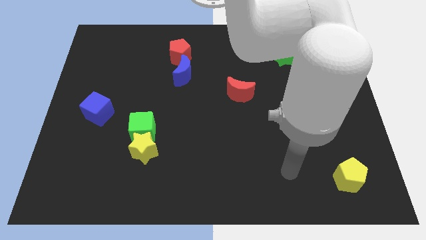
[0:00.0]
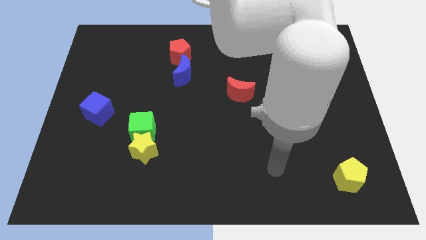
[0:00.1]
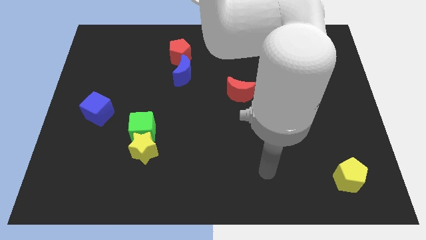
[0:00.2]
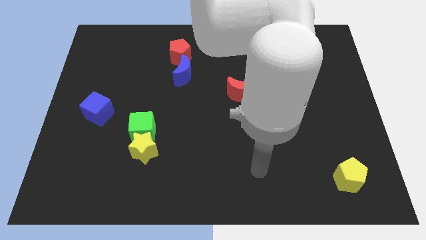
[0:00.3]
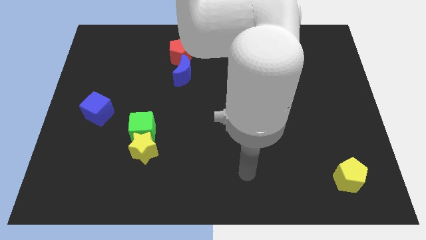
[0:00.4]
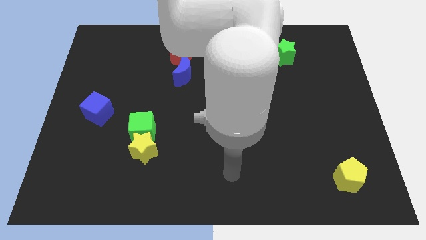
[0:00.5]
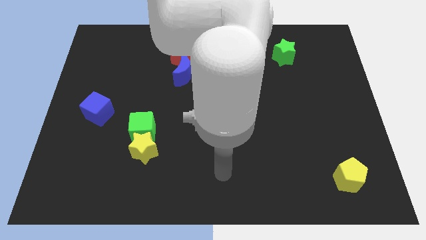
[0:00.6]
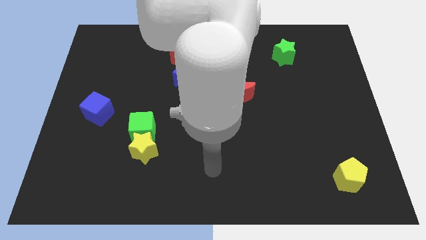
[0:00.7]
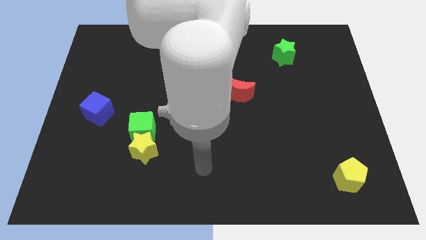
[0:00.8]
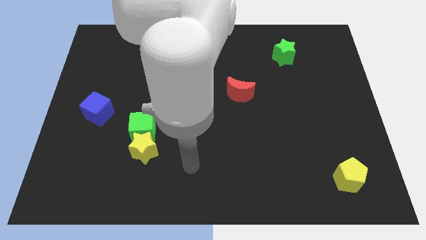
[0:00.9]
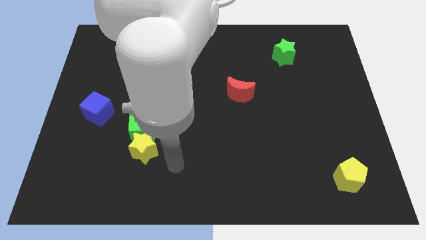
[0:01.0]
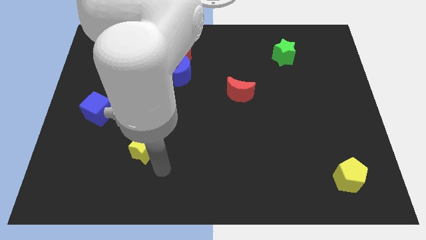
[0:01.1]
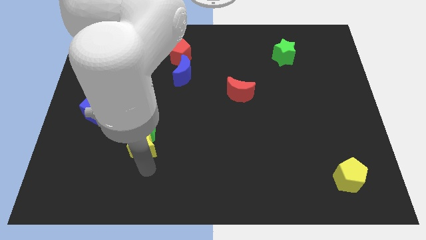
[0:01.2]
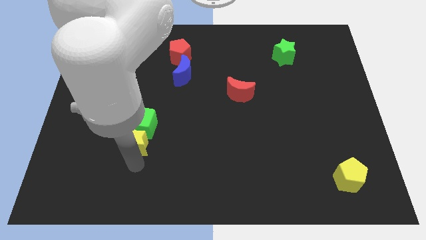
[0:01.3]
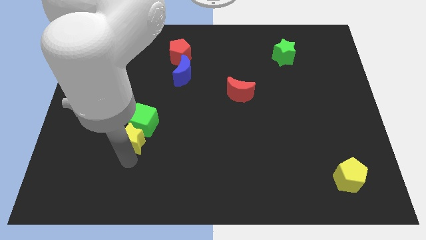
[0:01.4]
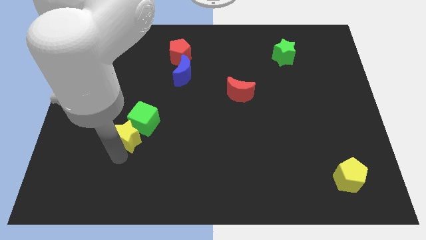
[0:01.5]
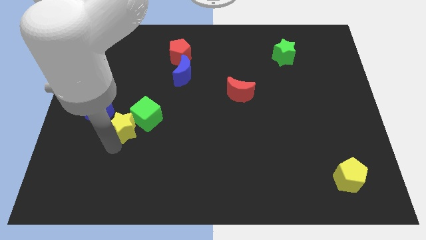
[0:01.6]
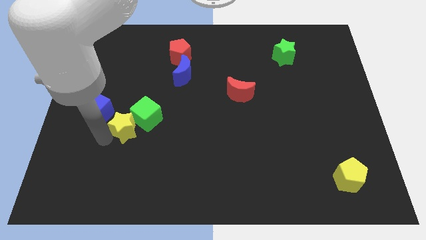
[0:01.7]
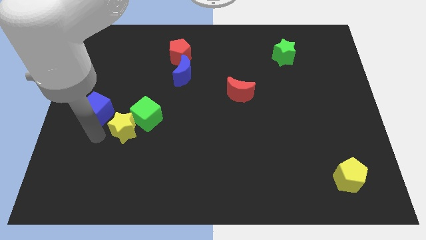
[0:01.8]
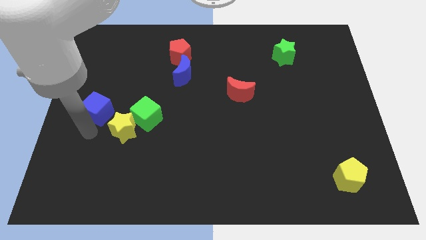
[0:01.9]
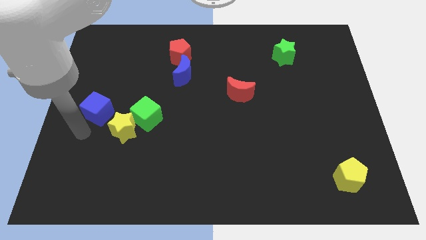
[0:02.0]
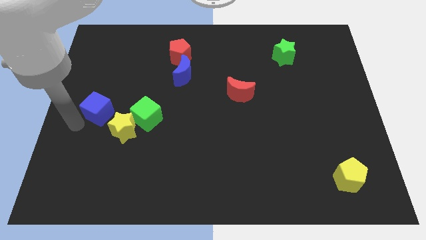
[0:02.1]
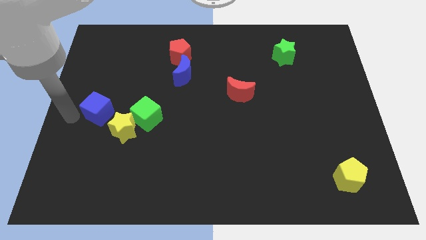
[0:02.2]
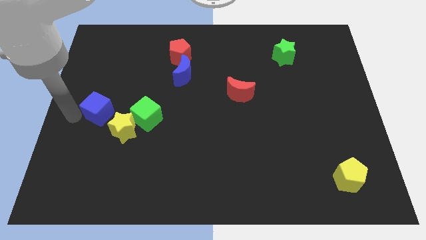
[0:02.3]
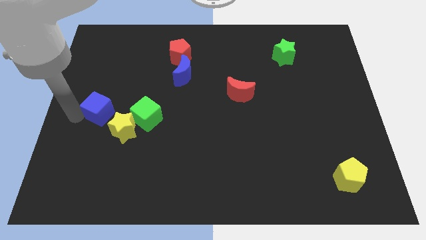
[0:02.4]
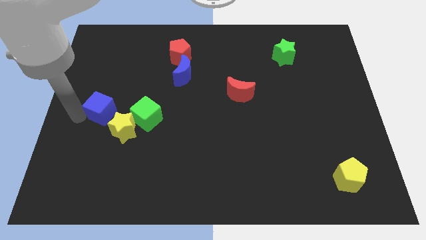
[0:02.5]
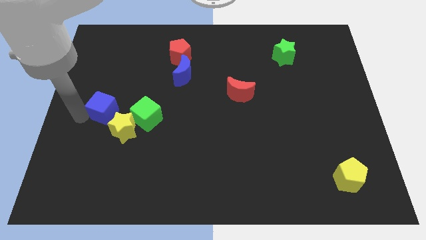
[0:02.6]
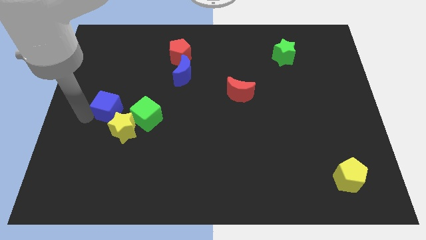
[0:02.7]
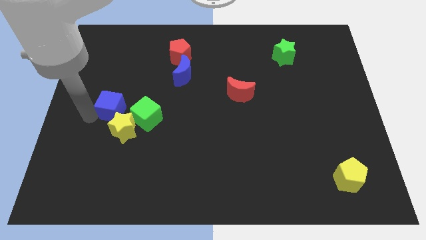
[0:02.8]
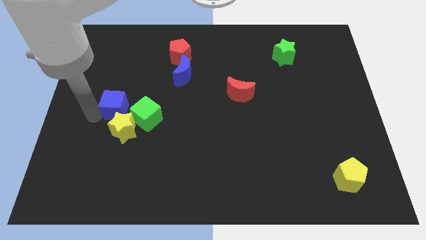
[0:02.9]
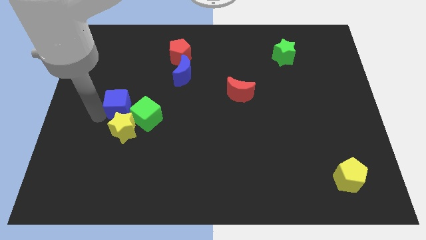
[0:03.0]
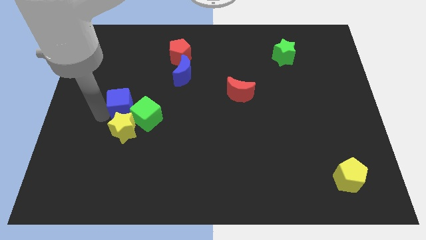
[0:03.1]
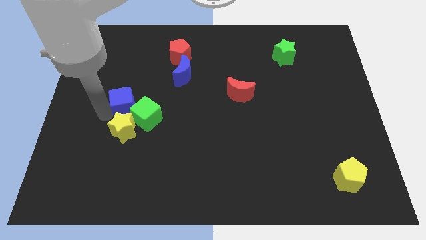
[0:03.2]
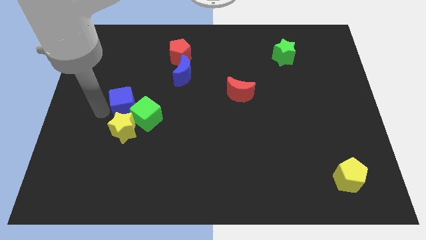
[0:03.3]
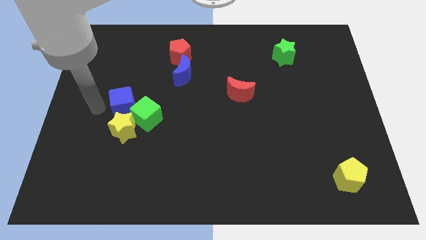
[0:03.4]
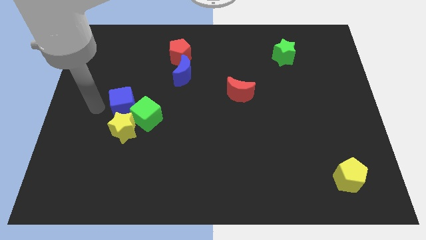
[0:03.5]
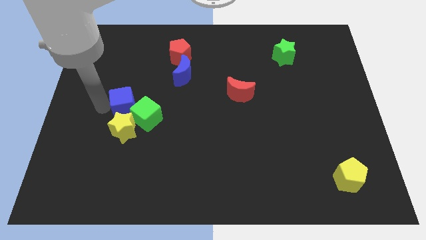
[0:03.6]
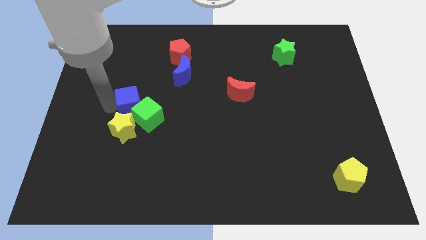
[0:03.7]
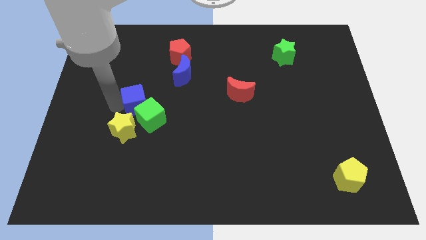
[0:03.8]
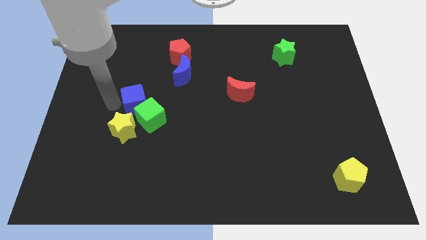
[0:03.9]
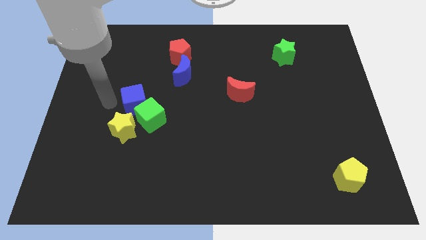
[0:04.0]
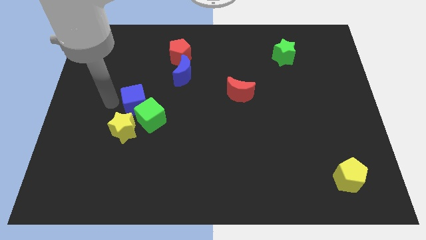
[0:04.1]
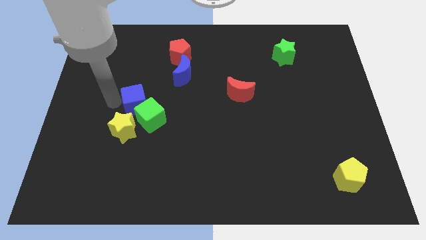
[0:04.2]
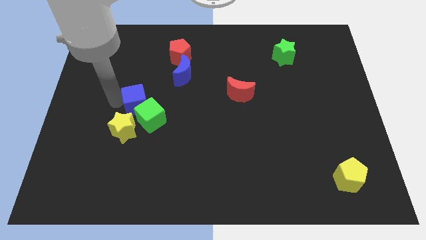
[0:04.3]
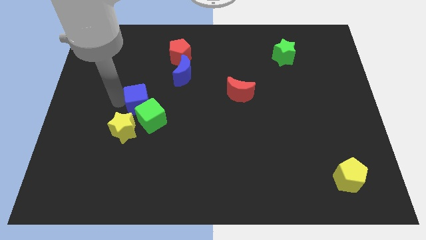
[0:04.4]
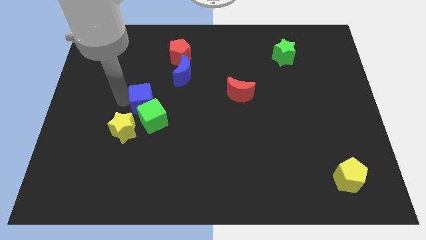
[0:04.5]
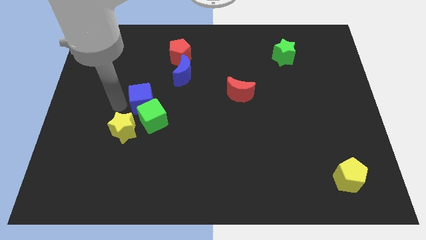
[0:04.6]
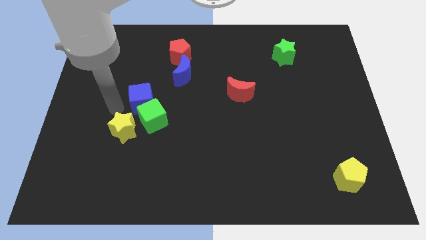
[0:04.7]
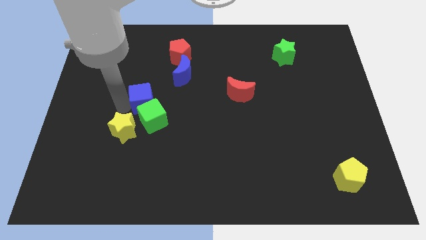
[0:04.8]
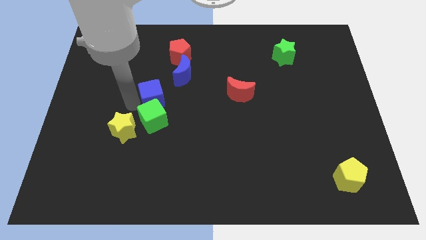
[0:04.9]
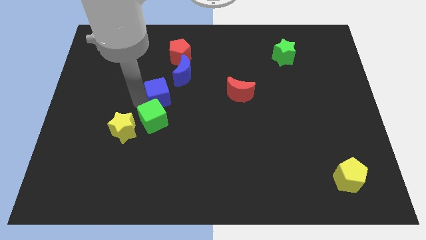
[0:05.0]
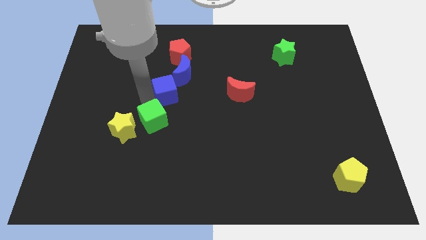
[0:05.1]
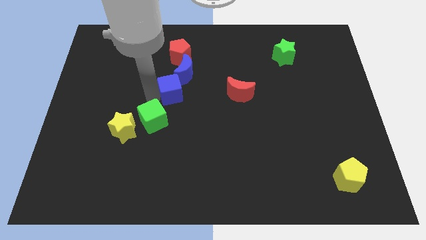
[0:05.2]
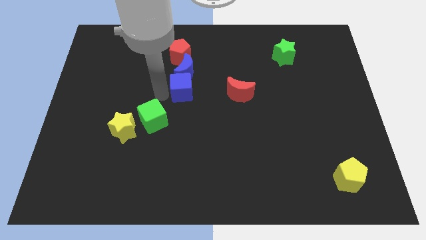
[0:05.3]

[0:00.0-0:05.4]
push the blue cube diagonally down and to the right of the blue moon

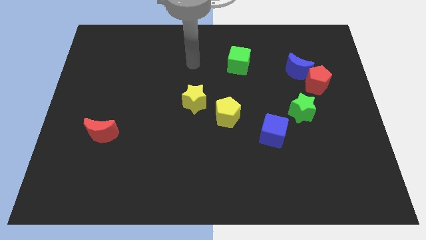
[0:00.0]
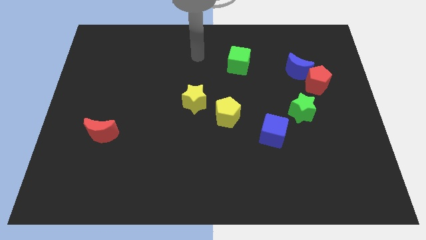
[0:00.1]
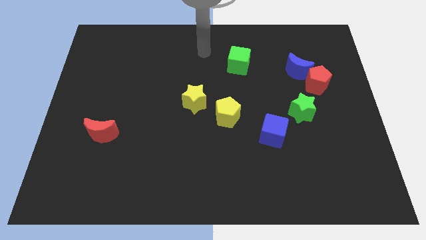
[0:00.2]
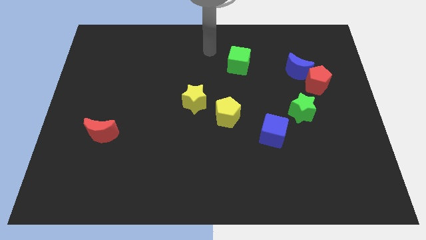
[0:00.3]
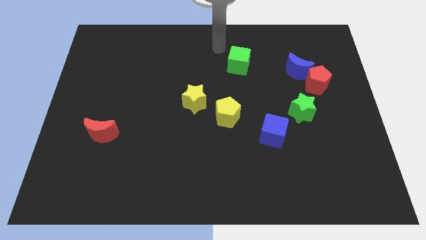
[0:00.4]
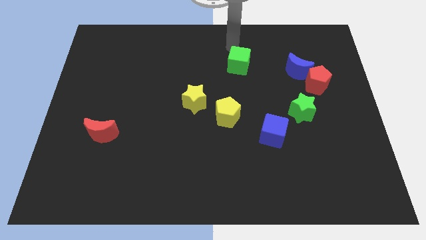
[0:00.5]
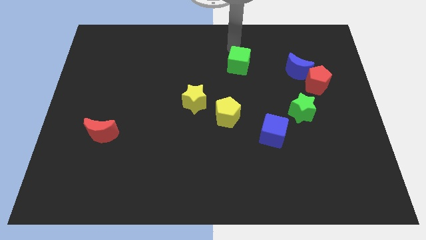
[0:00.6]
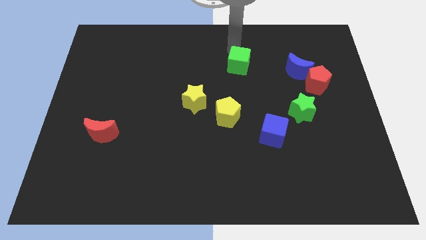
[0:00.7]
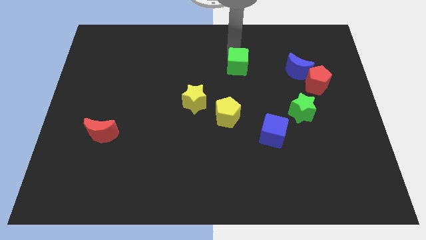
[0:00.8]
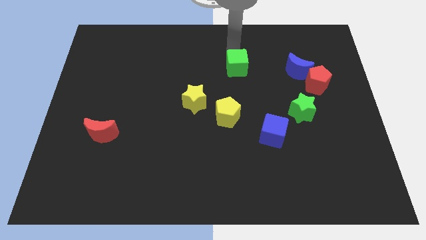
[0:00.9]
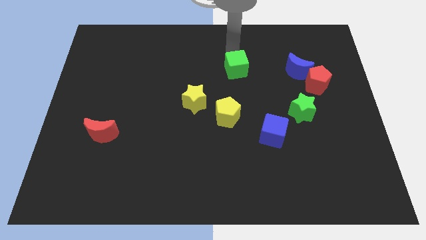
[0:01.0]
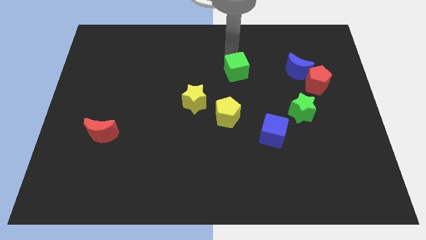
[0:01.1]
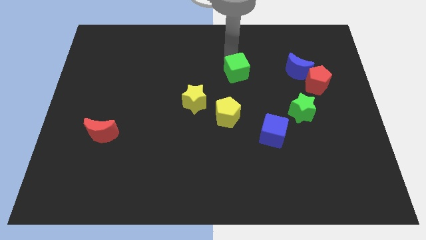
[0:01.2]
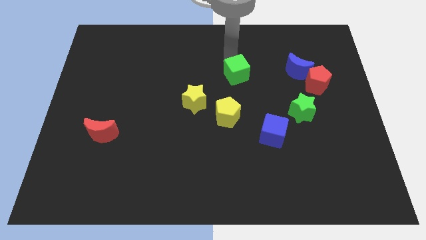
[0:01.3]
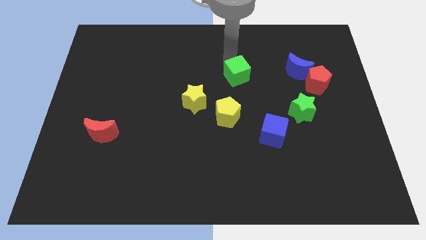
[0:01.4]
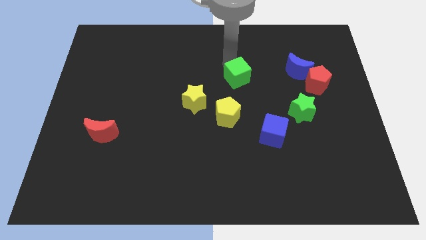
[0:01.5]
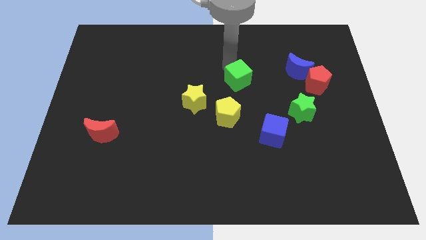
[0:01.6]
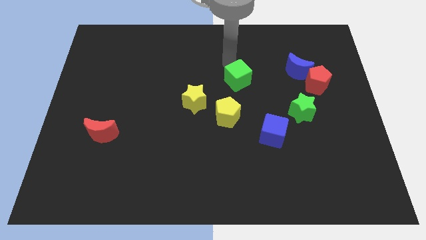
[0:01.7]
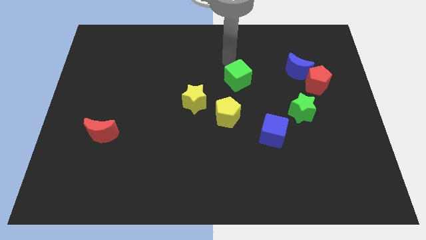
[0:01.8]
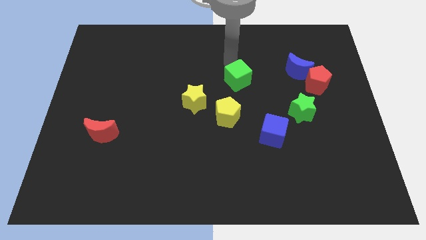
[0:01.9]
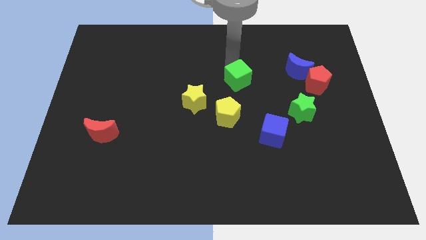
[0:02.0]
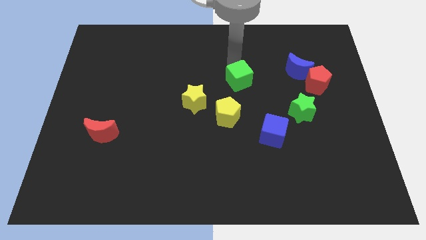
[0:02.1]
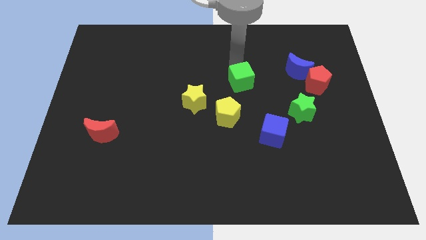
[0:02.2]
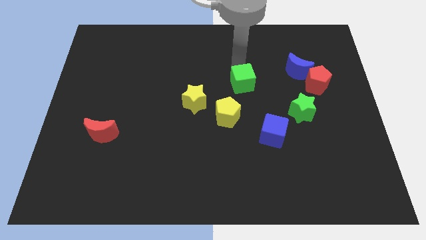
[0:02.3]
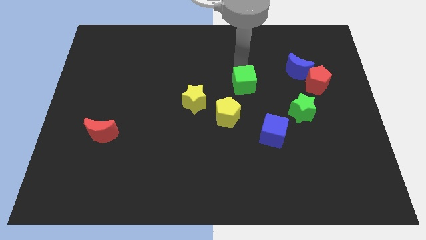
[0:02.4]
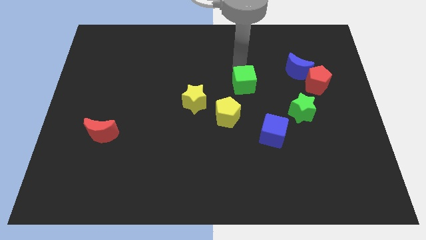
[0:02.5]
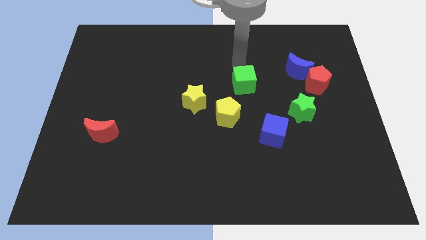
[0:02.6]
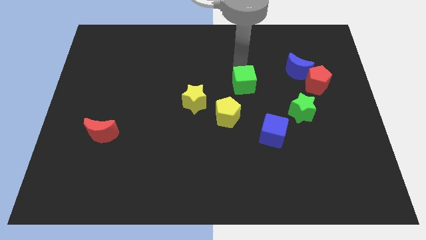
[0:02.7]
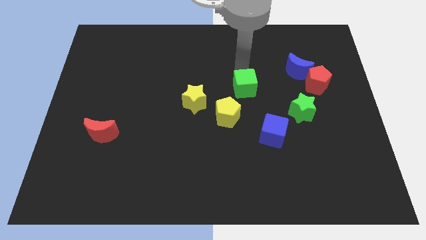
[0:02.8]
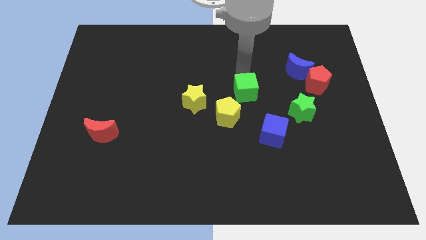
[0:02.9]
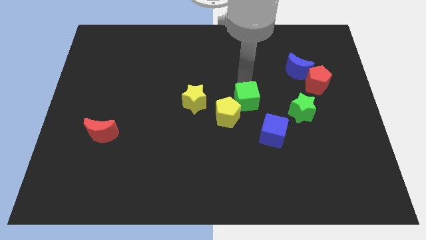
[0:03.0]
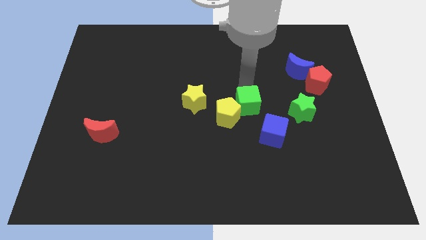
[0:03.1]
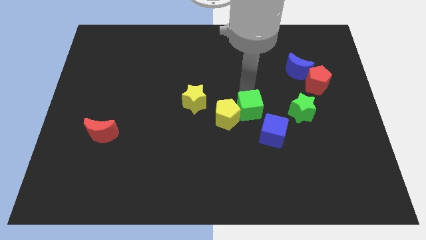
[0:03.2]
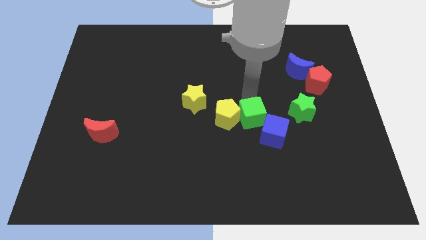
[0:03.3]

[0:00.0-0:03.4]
slide the green cube to the bottom right side of the yellow pentagon
